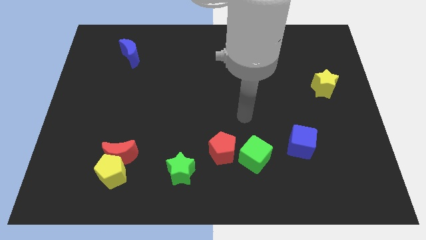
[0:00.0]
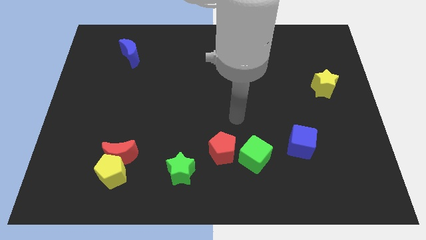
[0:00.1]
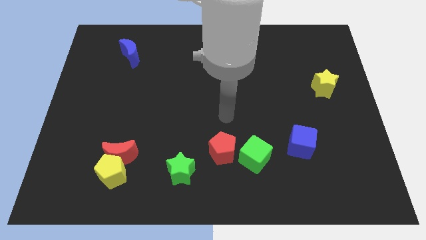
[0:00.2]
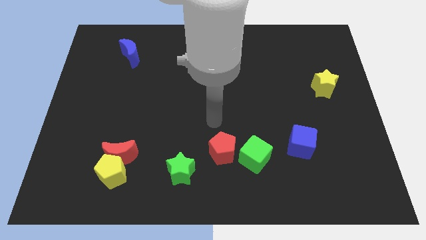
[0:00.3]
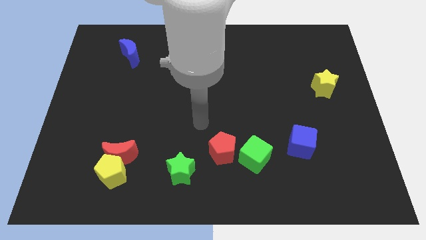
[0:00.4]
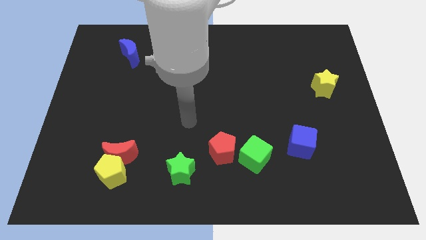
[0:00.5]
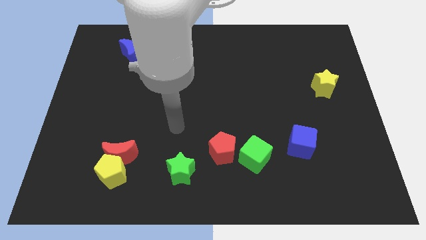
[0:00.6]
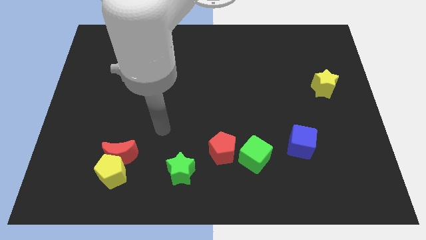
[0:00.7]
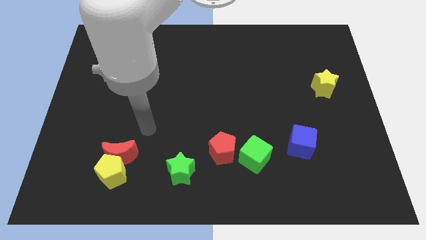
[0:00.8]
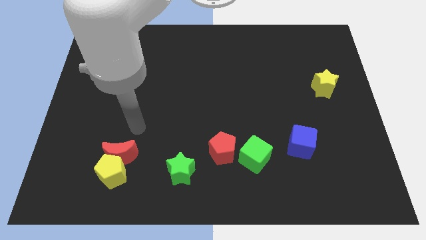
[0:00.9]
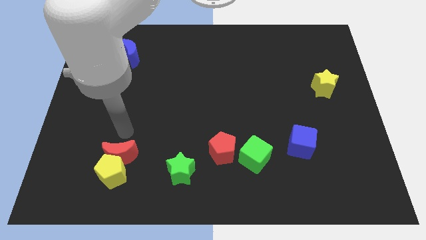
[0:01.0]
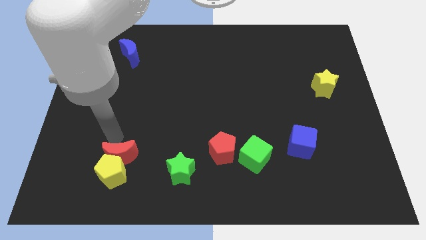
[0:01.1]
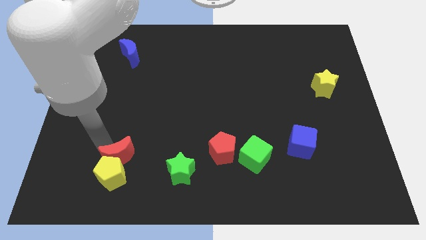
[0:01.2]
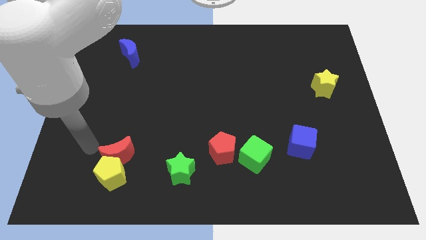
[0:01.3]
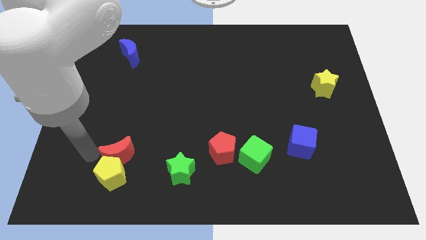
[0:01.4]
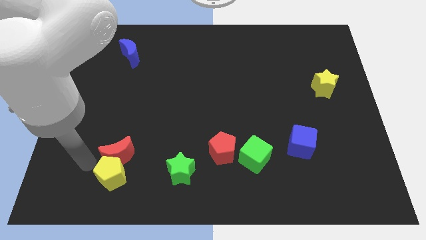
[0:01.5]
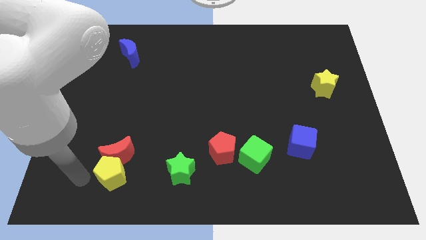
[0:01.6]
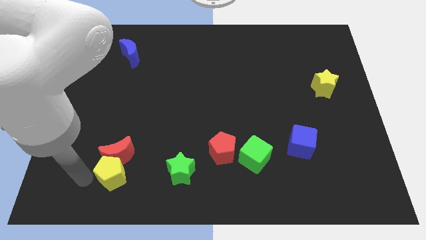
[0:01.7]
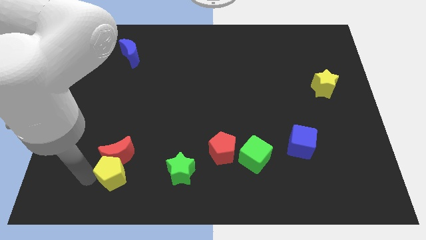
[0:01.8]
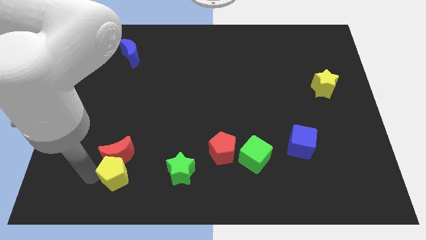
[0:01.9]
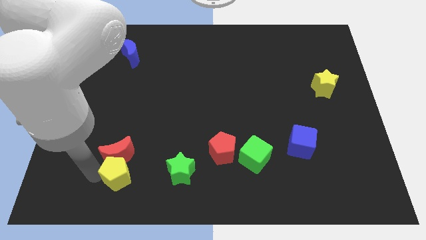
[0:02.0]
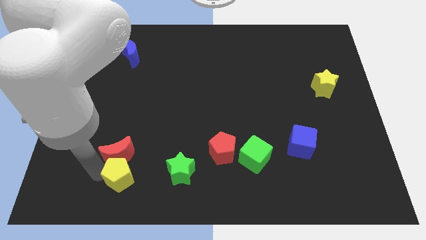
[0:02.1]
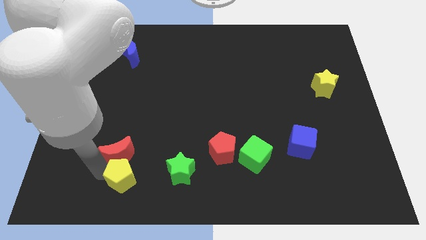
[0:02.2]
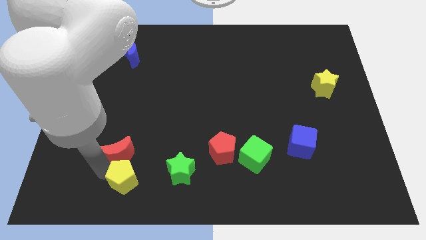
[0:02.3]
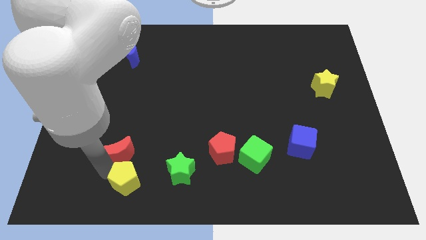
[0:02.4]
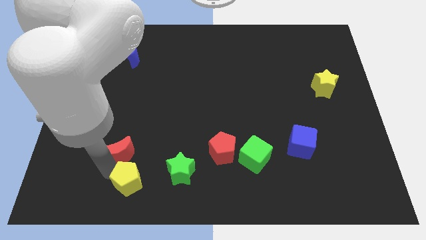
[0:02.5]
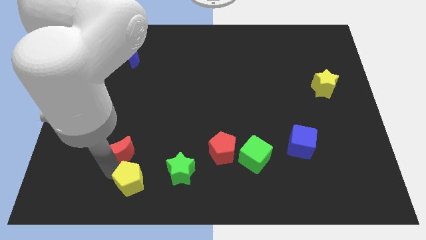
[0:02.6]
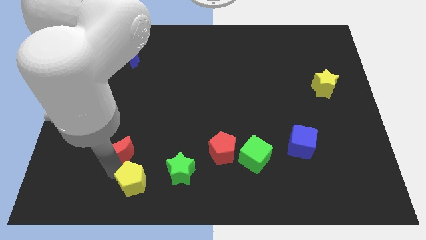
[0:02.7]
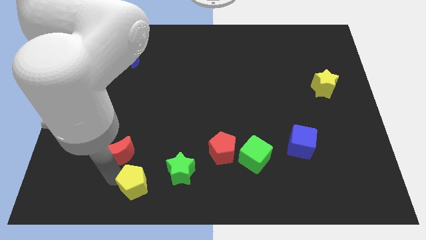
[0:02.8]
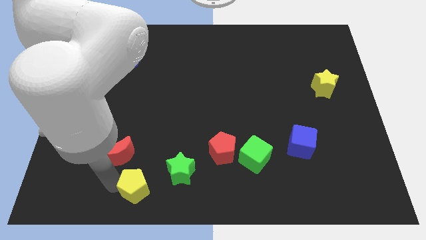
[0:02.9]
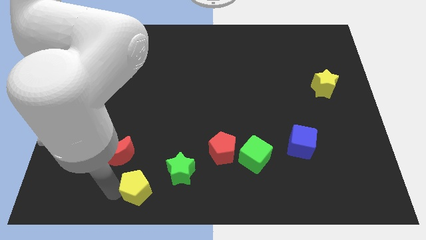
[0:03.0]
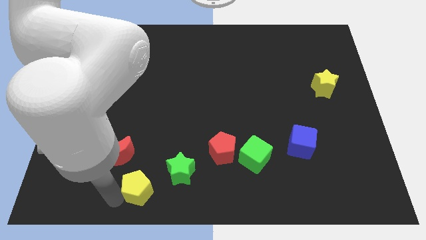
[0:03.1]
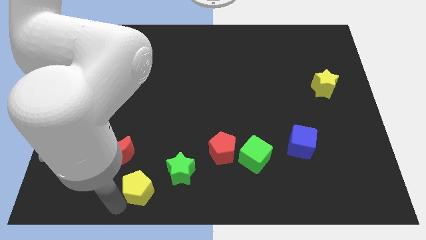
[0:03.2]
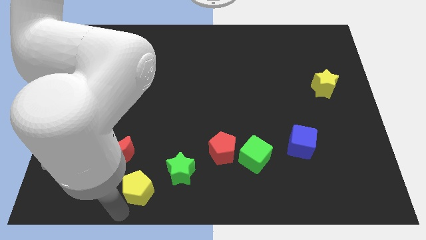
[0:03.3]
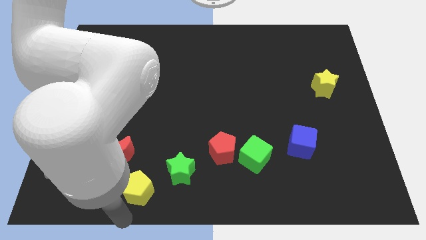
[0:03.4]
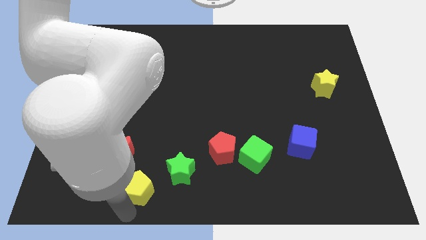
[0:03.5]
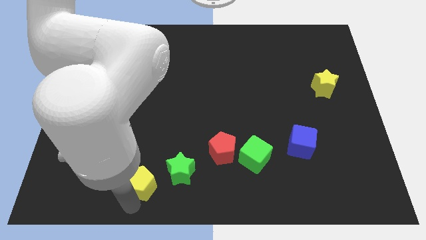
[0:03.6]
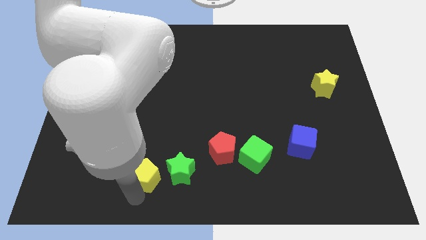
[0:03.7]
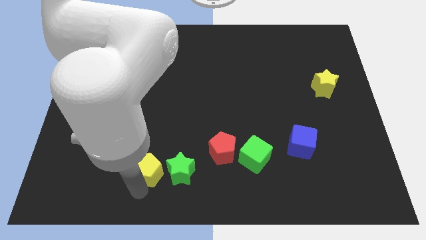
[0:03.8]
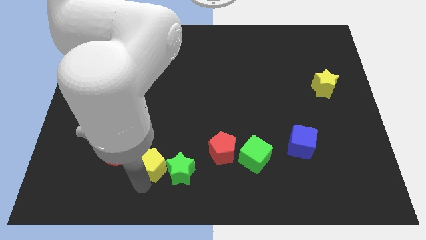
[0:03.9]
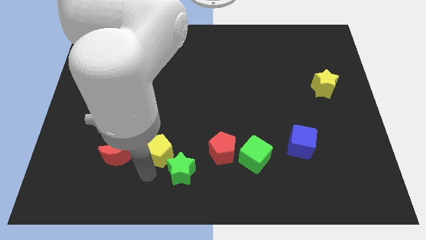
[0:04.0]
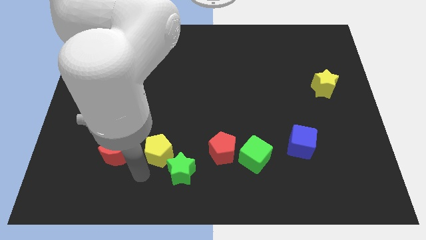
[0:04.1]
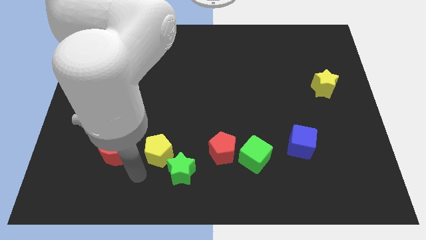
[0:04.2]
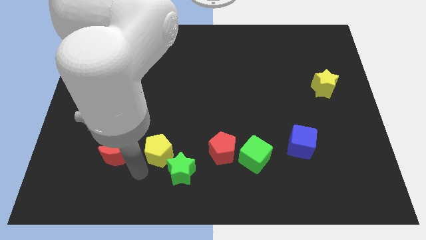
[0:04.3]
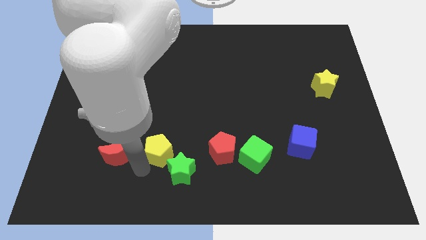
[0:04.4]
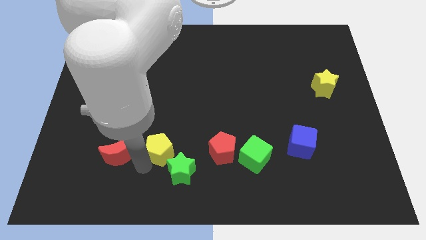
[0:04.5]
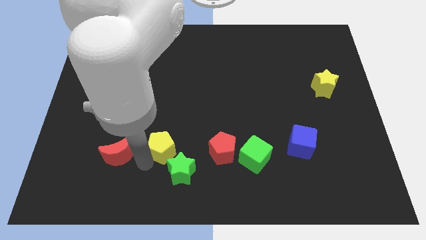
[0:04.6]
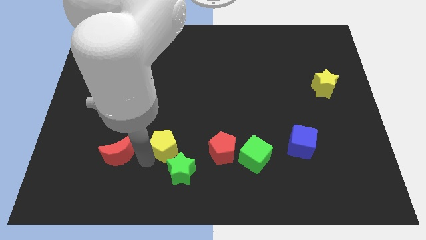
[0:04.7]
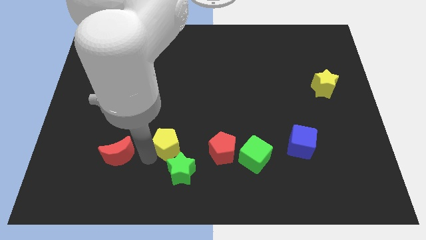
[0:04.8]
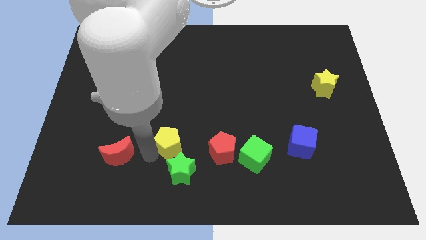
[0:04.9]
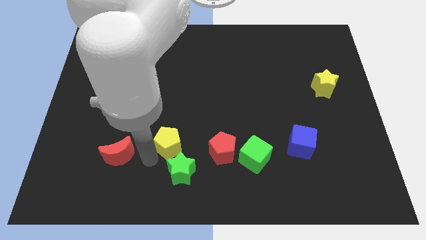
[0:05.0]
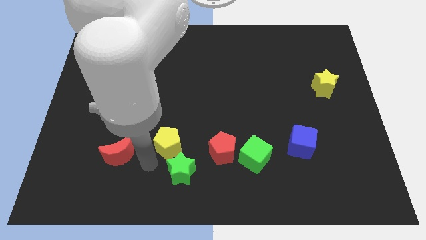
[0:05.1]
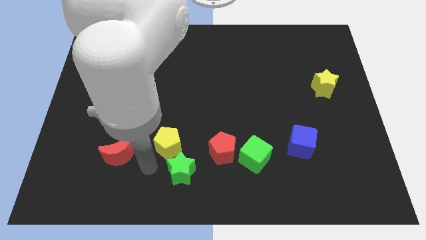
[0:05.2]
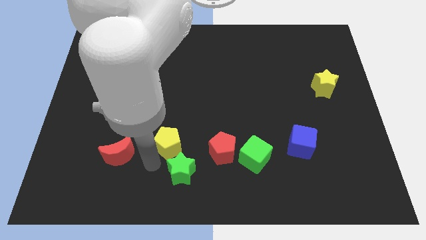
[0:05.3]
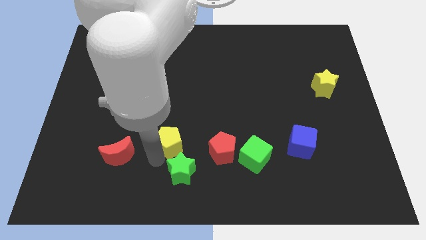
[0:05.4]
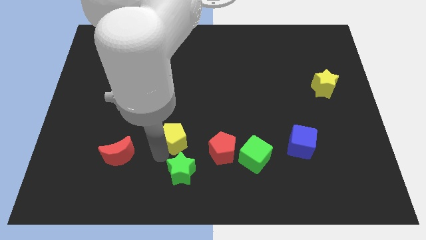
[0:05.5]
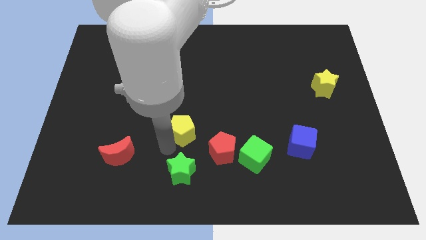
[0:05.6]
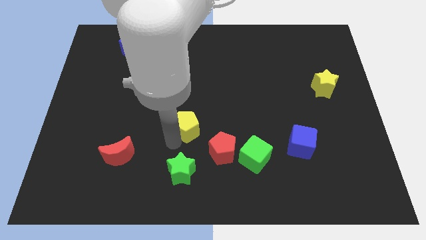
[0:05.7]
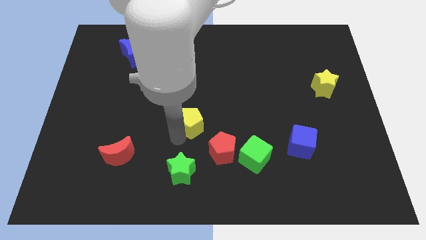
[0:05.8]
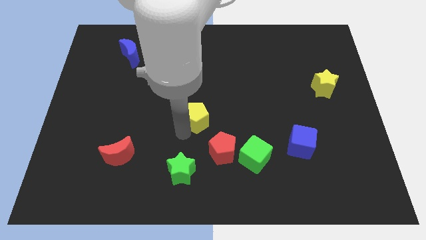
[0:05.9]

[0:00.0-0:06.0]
slide the yellow pentagon up and right diagonally

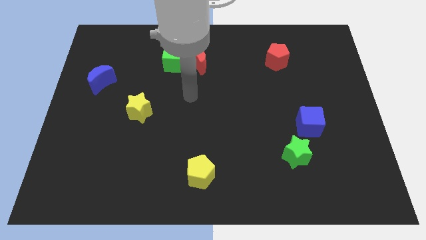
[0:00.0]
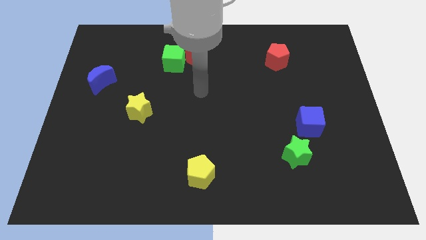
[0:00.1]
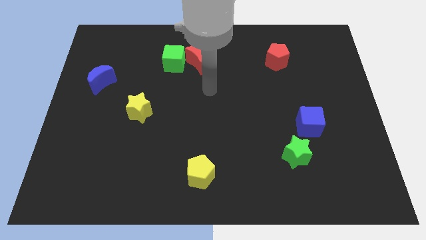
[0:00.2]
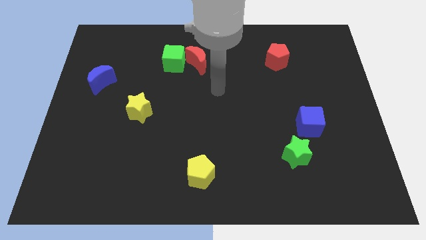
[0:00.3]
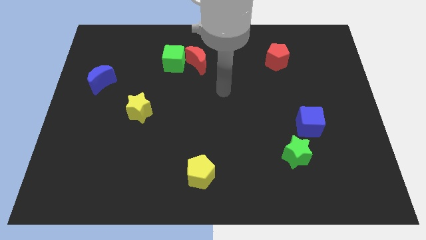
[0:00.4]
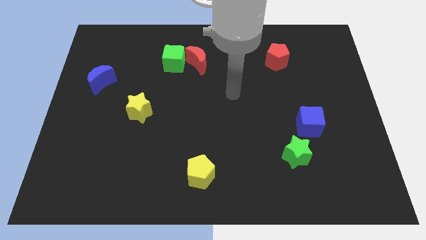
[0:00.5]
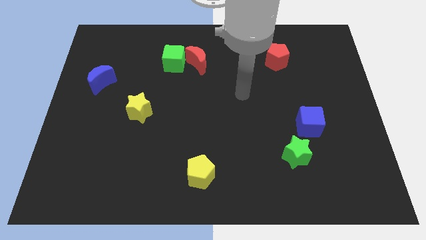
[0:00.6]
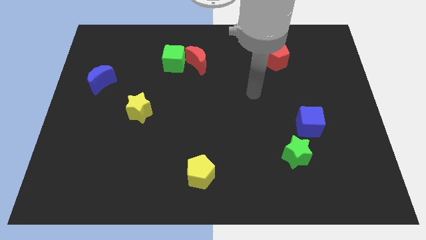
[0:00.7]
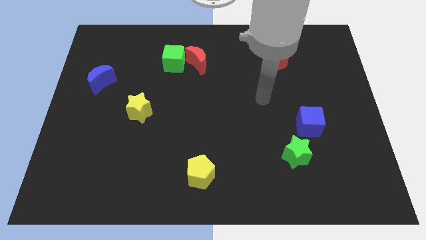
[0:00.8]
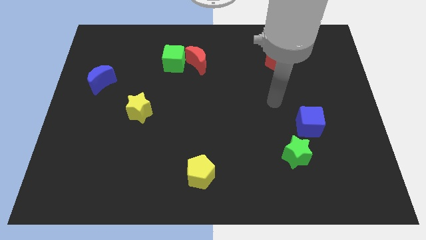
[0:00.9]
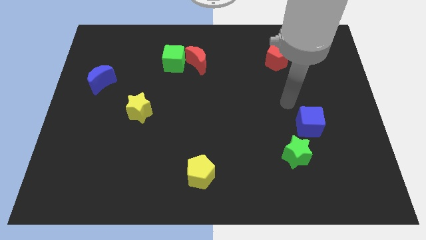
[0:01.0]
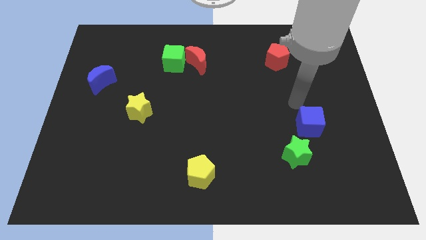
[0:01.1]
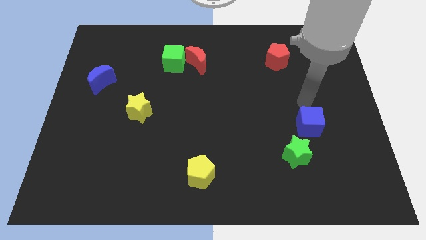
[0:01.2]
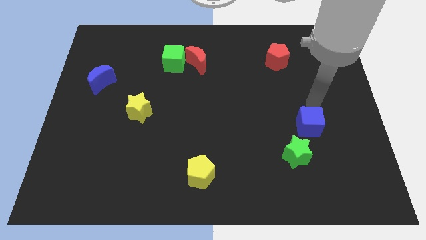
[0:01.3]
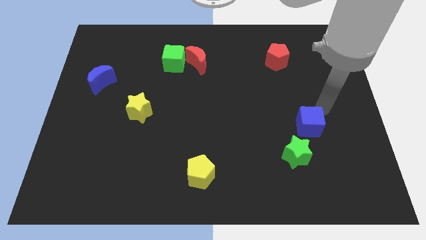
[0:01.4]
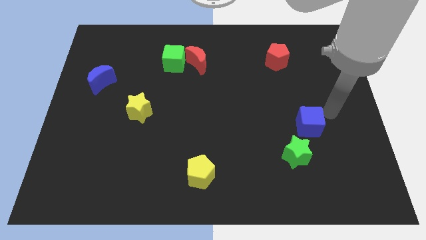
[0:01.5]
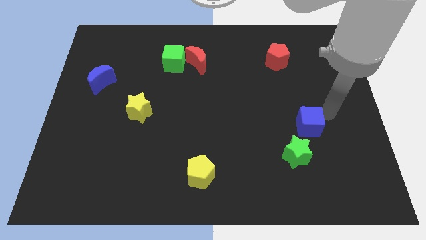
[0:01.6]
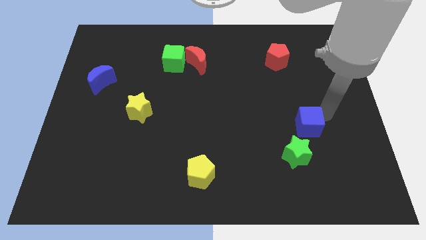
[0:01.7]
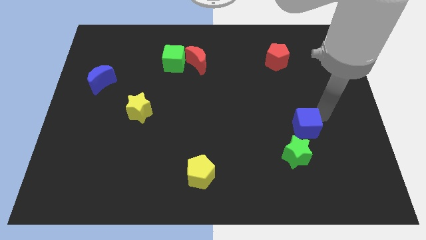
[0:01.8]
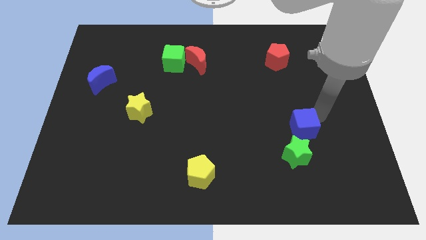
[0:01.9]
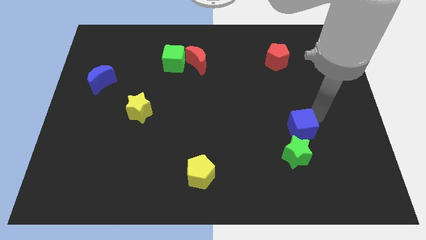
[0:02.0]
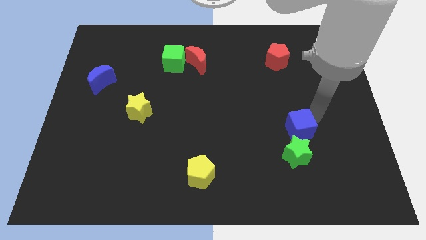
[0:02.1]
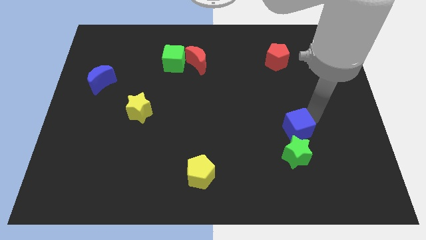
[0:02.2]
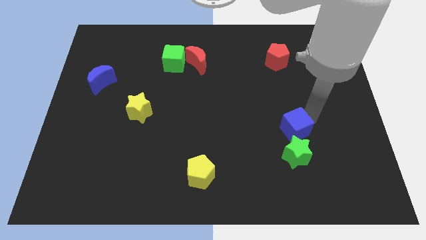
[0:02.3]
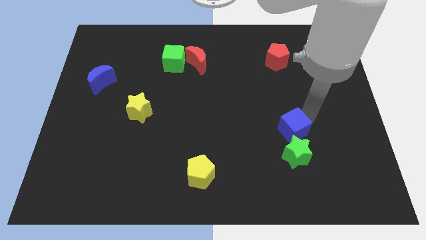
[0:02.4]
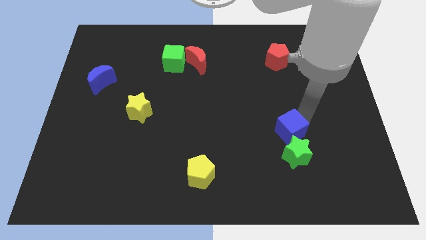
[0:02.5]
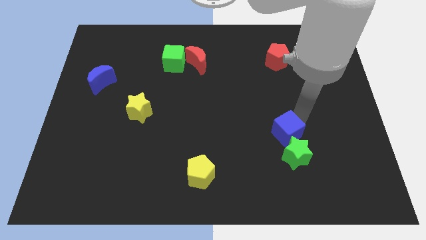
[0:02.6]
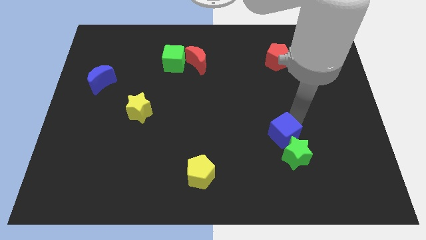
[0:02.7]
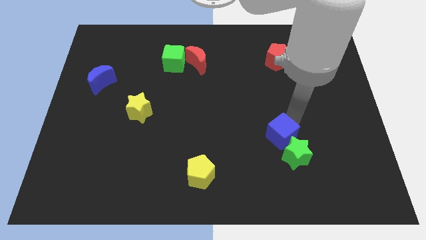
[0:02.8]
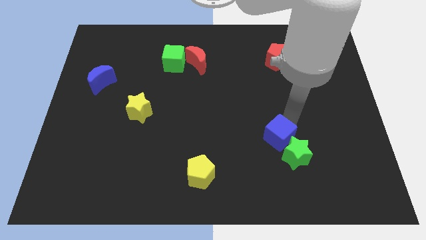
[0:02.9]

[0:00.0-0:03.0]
push the blue cube down and left diagonally a little
